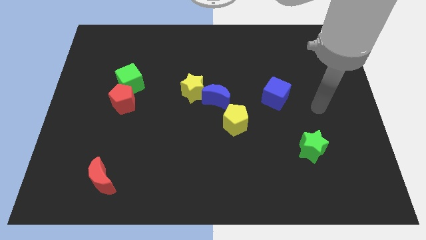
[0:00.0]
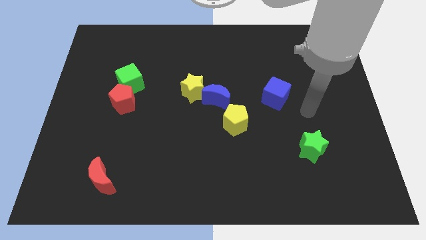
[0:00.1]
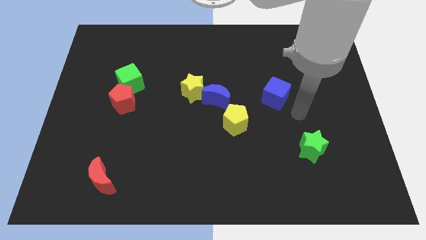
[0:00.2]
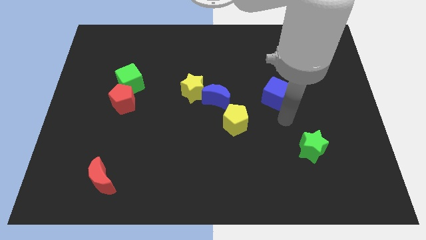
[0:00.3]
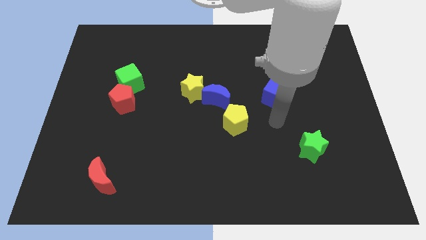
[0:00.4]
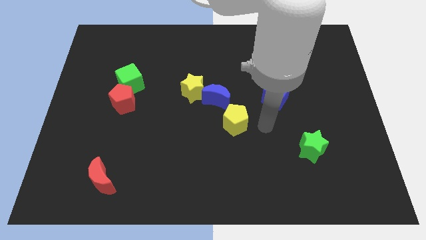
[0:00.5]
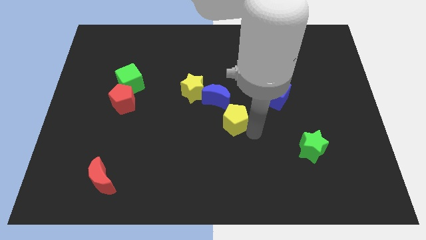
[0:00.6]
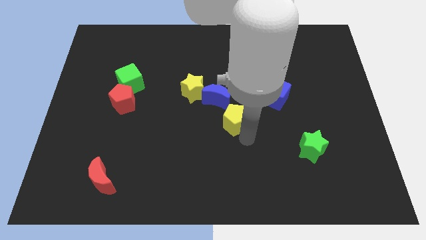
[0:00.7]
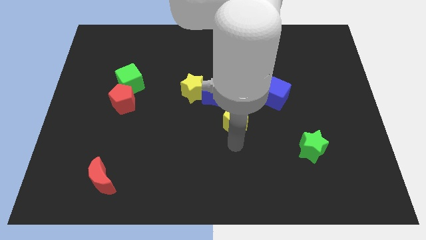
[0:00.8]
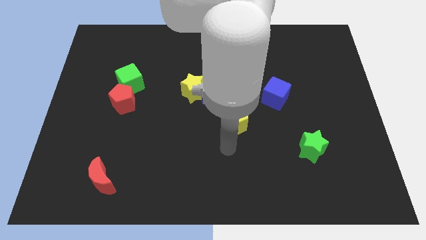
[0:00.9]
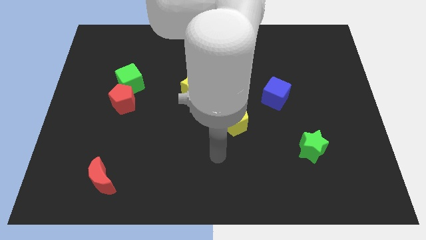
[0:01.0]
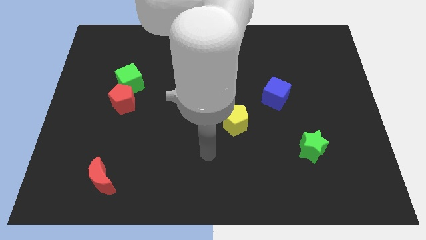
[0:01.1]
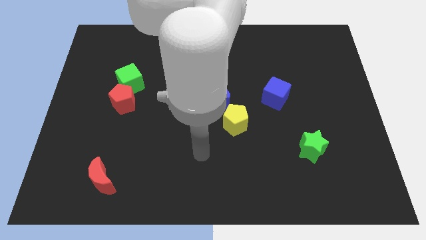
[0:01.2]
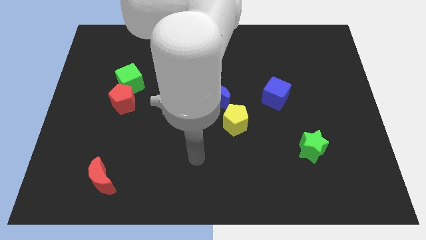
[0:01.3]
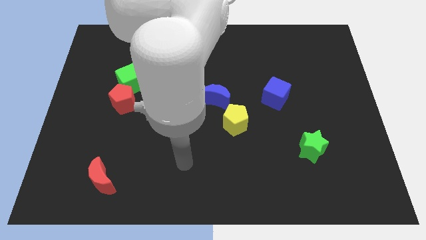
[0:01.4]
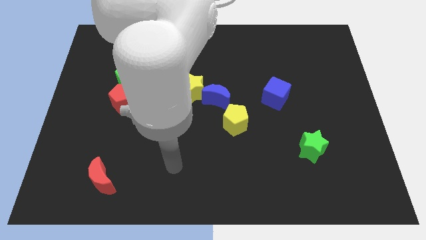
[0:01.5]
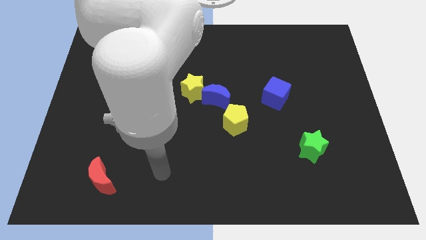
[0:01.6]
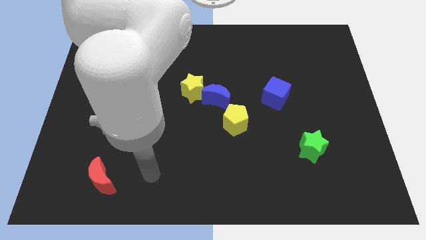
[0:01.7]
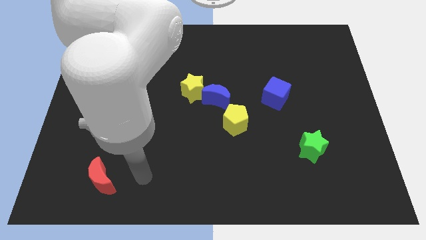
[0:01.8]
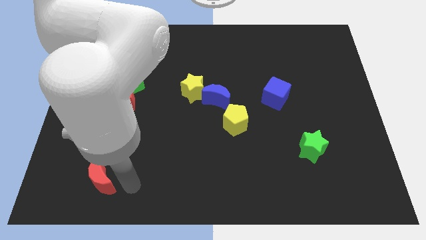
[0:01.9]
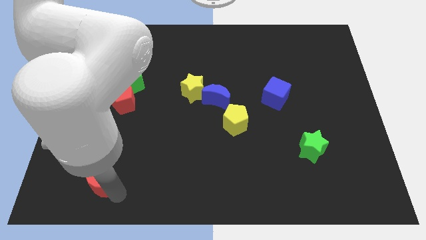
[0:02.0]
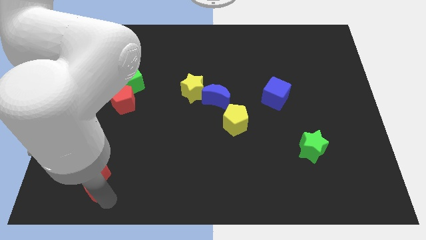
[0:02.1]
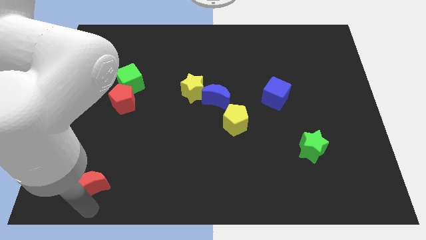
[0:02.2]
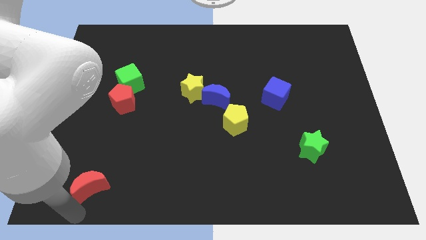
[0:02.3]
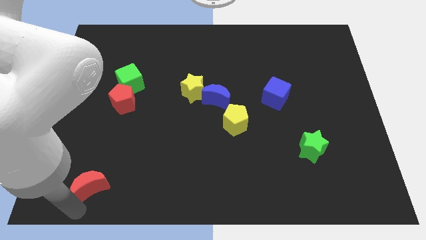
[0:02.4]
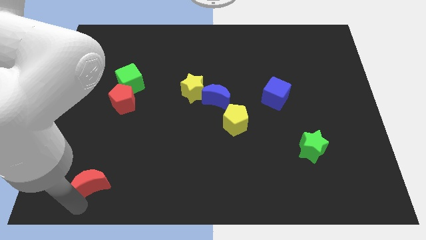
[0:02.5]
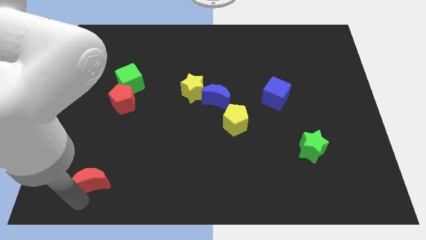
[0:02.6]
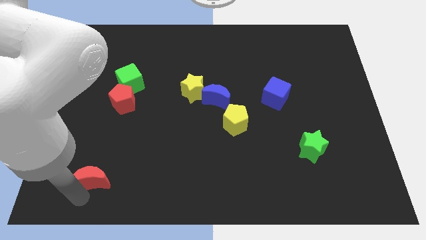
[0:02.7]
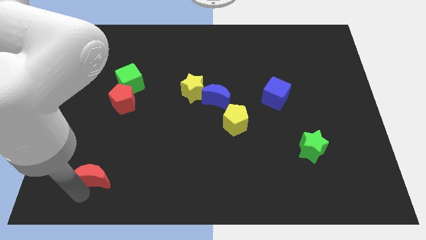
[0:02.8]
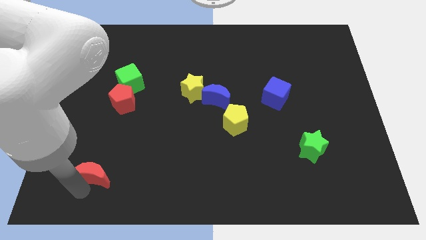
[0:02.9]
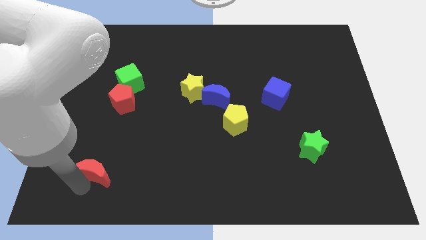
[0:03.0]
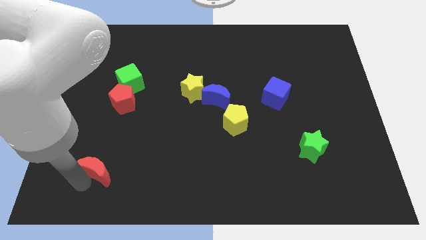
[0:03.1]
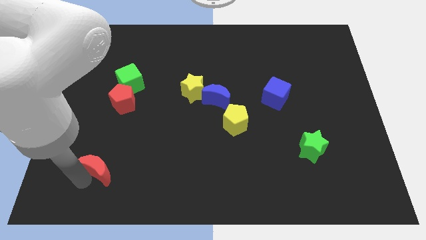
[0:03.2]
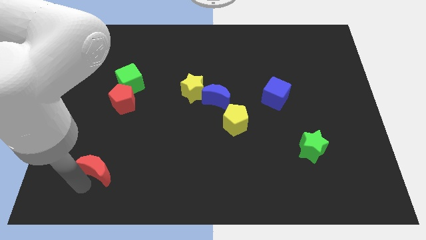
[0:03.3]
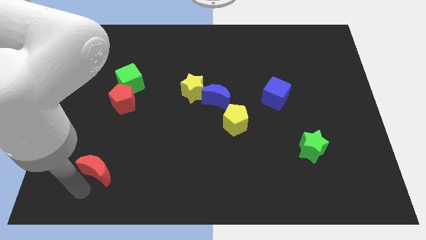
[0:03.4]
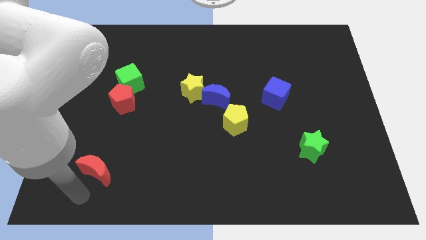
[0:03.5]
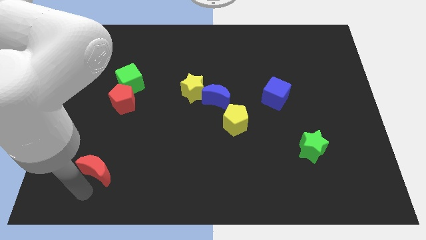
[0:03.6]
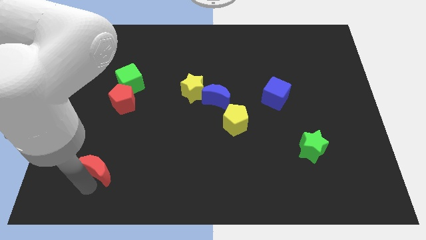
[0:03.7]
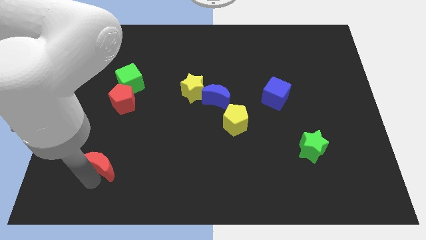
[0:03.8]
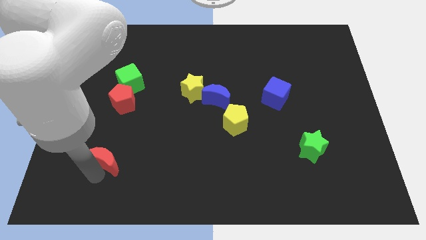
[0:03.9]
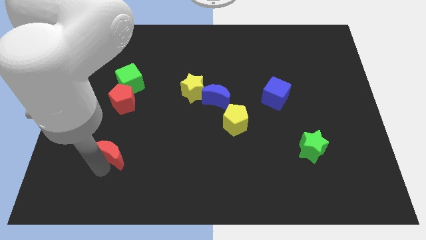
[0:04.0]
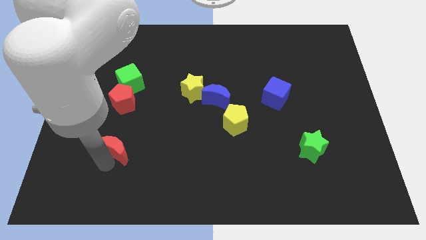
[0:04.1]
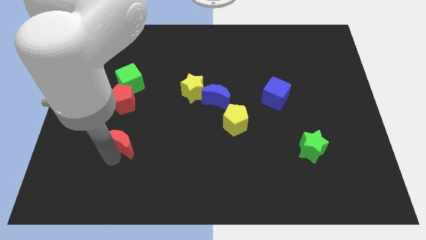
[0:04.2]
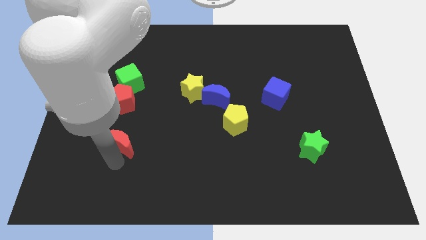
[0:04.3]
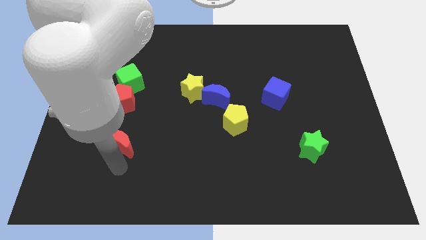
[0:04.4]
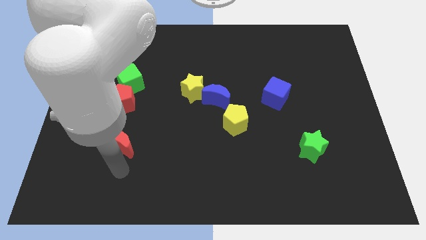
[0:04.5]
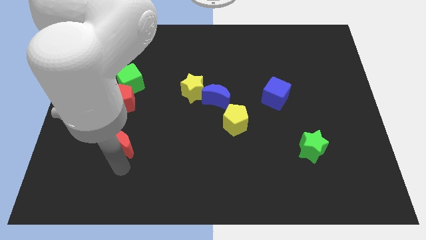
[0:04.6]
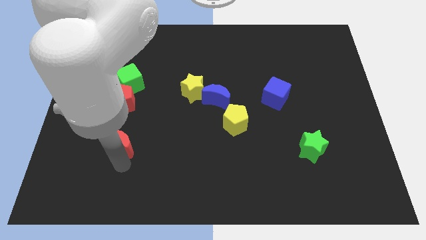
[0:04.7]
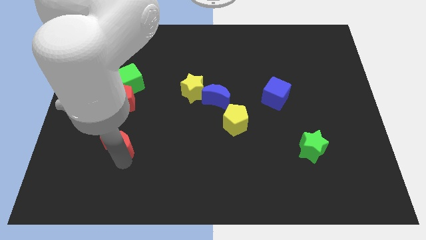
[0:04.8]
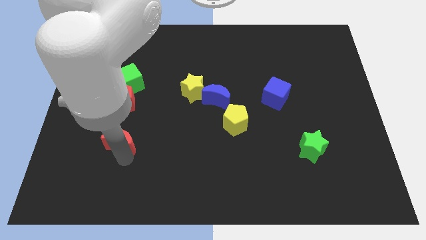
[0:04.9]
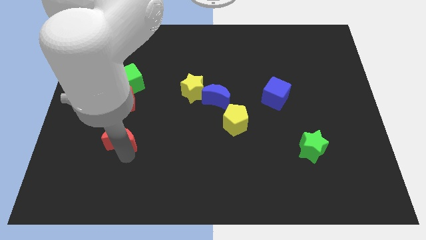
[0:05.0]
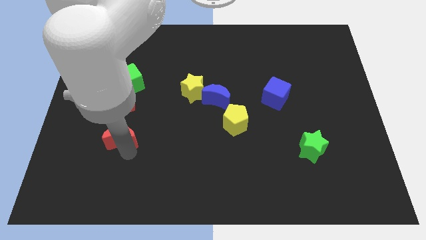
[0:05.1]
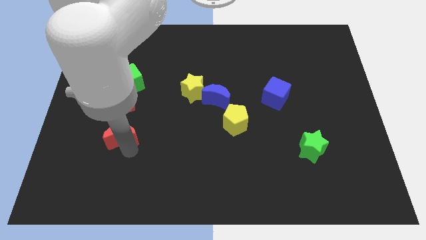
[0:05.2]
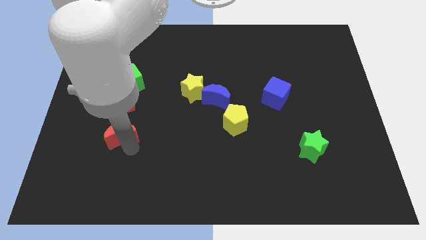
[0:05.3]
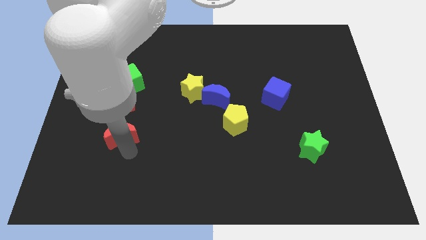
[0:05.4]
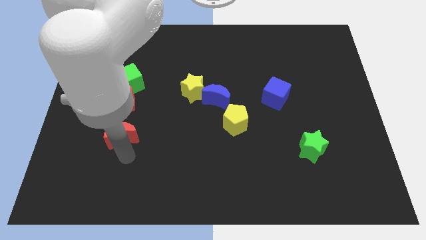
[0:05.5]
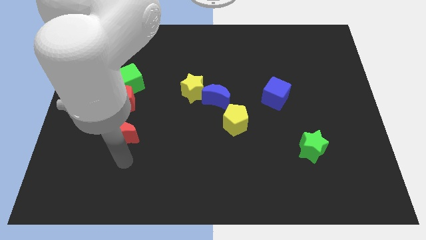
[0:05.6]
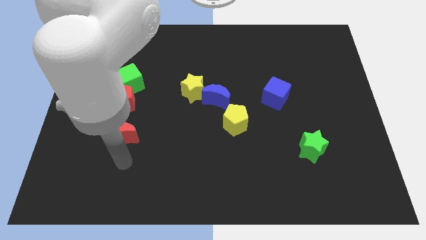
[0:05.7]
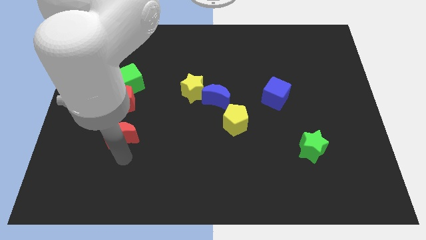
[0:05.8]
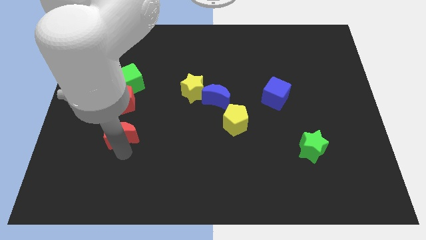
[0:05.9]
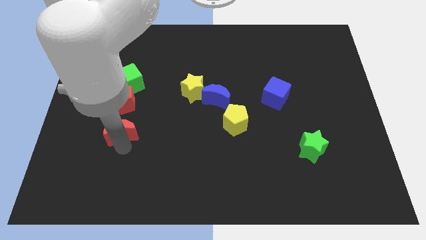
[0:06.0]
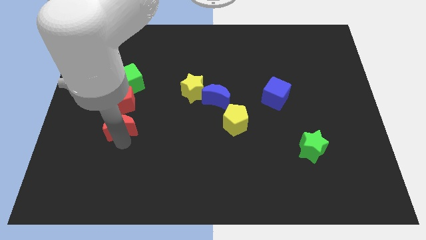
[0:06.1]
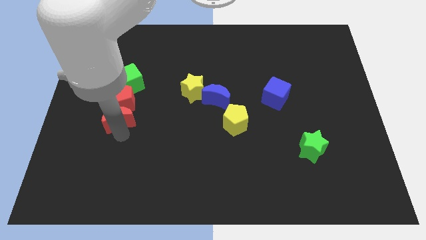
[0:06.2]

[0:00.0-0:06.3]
push the red moon next to the red pentagon

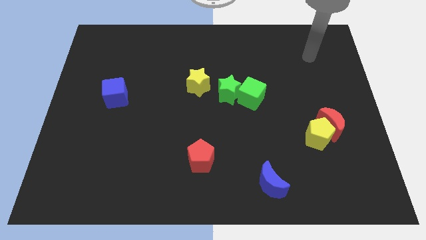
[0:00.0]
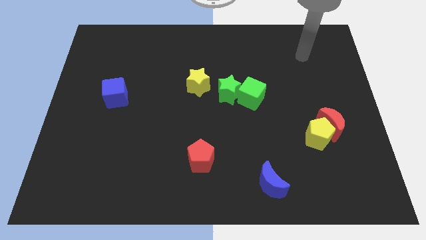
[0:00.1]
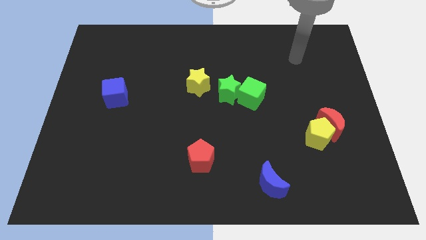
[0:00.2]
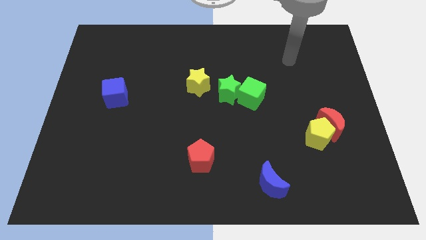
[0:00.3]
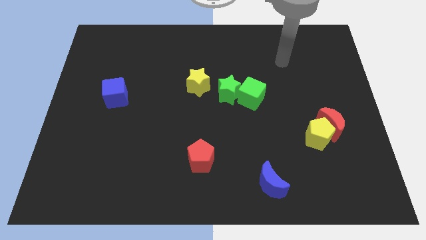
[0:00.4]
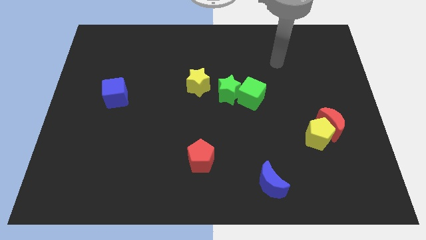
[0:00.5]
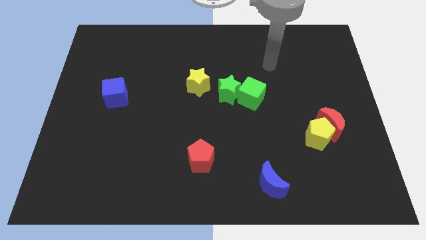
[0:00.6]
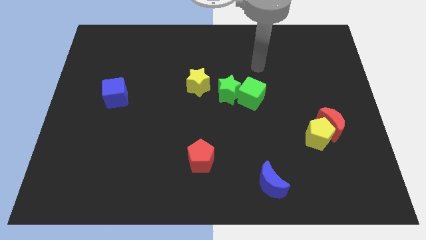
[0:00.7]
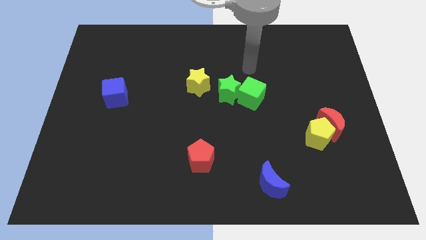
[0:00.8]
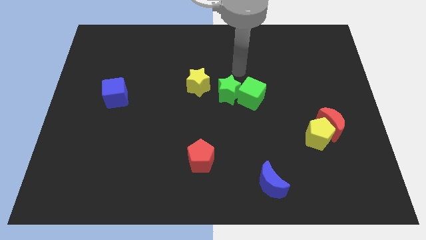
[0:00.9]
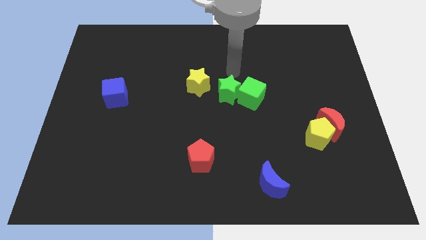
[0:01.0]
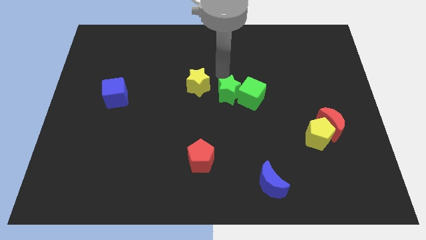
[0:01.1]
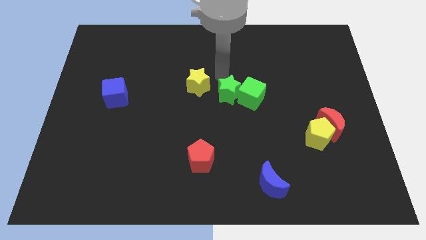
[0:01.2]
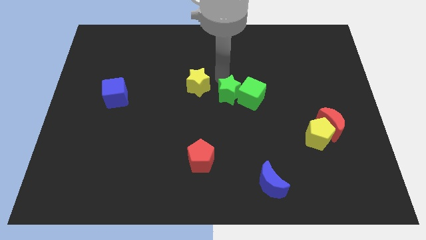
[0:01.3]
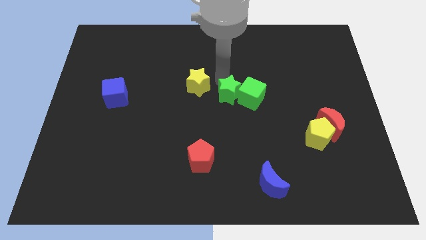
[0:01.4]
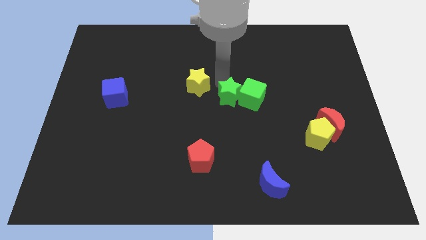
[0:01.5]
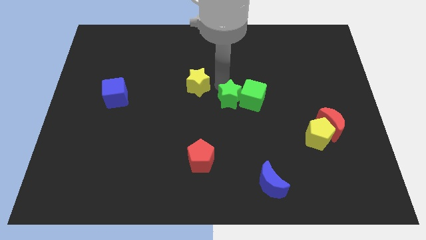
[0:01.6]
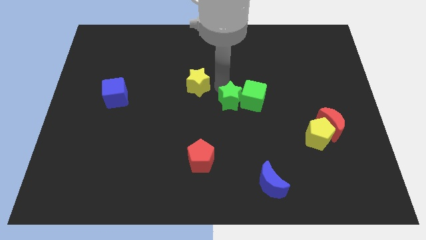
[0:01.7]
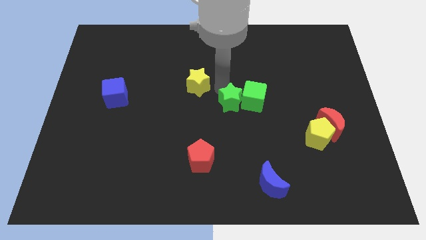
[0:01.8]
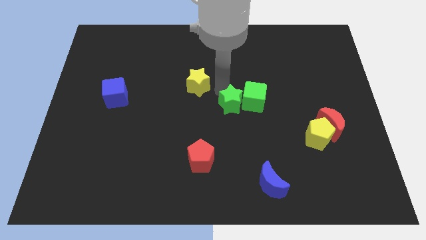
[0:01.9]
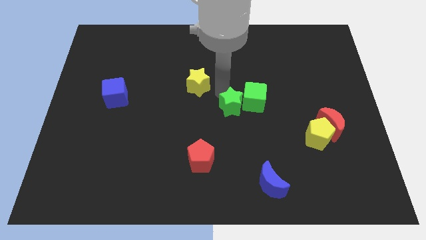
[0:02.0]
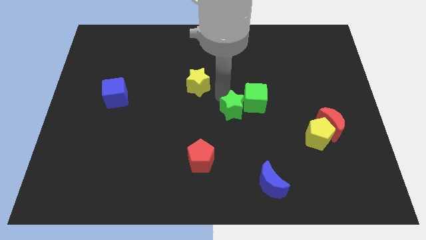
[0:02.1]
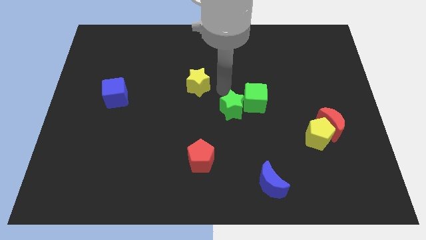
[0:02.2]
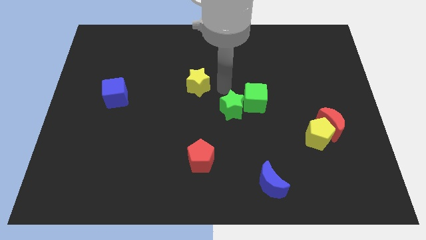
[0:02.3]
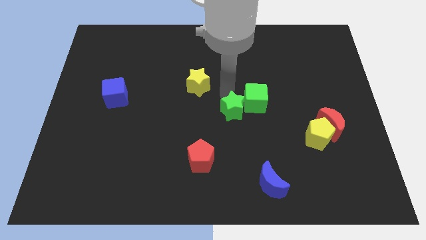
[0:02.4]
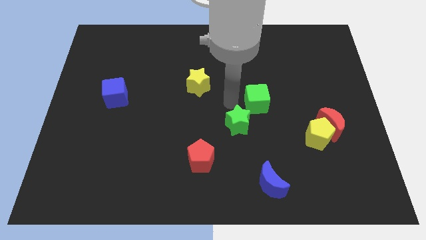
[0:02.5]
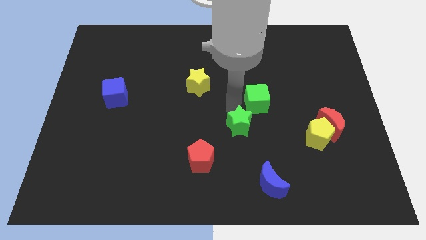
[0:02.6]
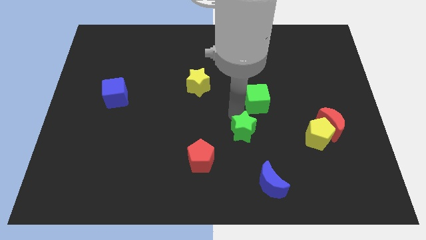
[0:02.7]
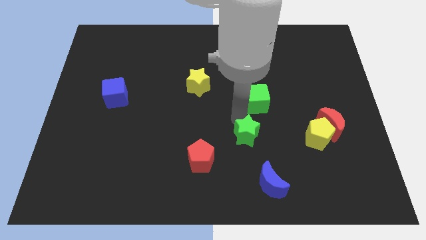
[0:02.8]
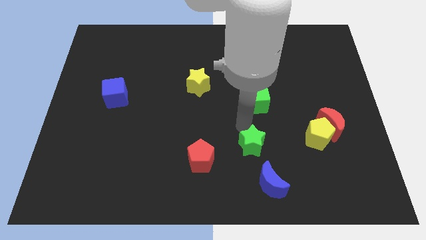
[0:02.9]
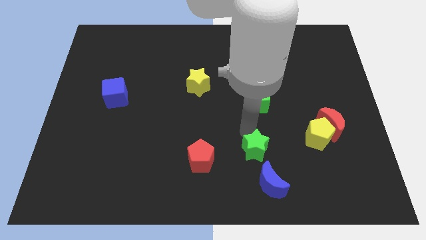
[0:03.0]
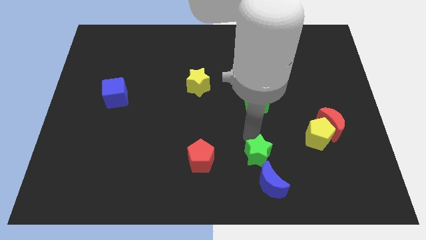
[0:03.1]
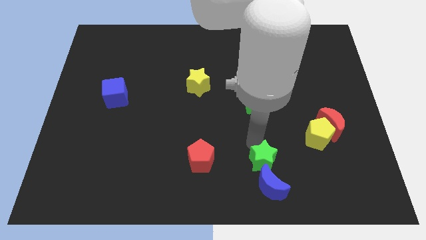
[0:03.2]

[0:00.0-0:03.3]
push the green star close to the blue moon
